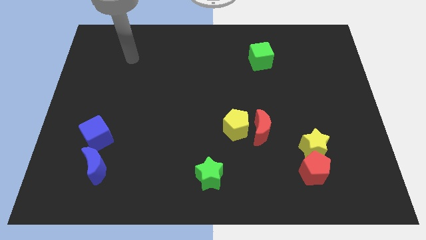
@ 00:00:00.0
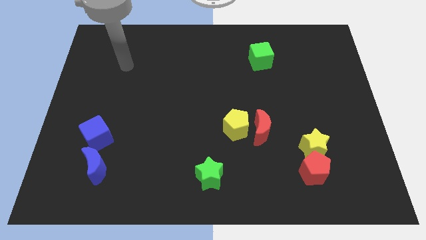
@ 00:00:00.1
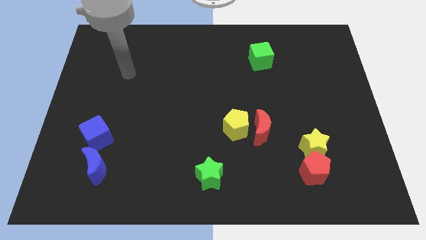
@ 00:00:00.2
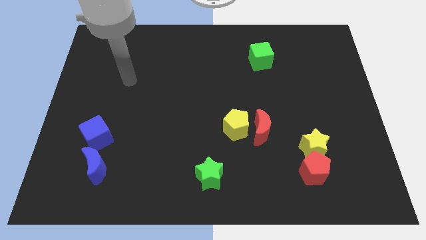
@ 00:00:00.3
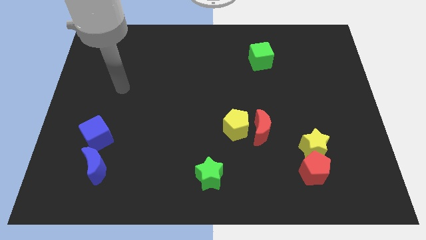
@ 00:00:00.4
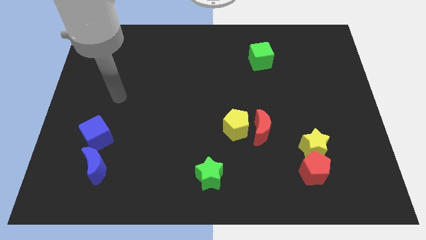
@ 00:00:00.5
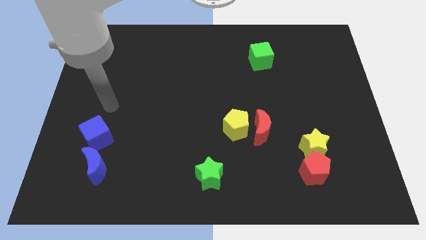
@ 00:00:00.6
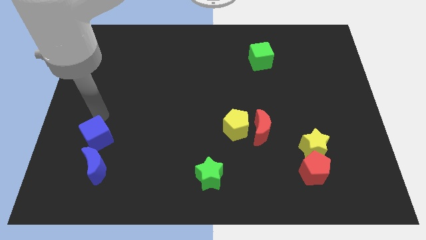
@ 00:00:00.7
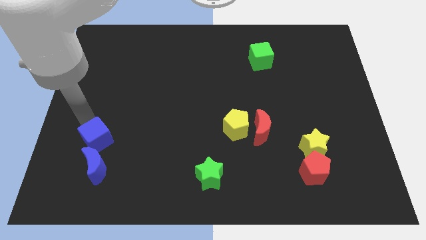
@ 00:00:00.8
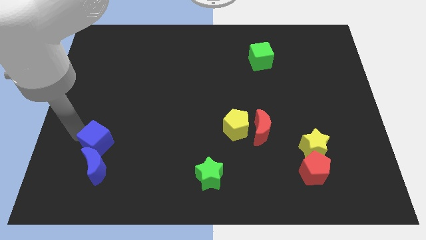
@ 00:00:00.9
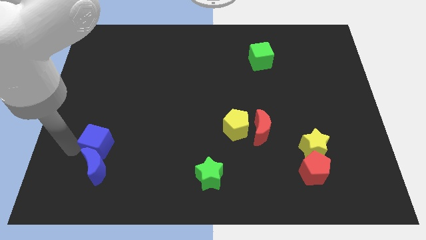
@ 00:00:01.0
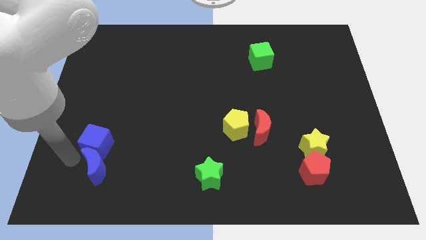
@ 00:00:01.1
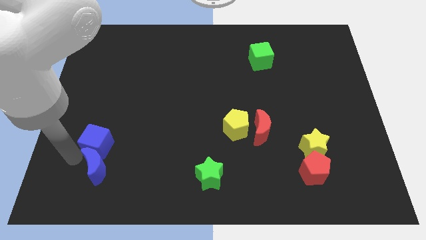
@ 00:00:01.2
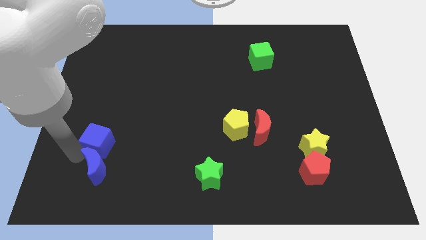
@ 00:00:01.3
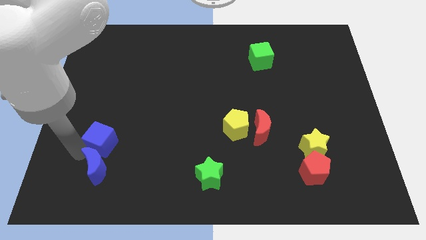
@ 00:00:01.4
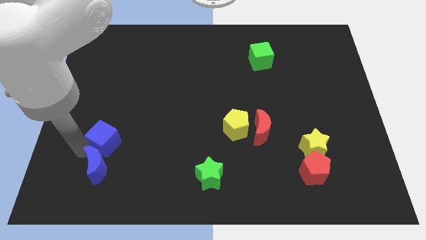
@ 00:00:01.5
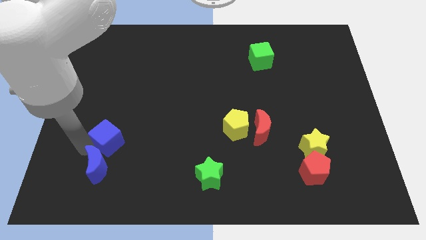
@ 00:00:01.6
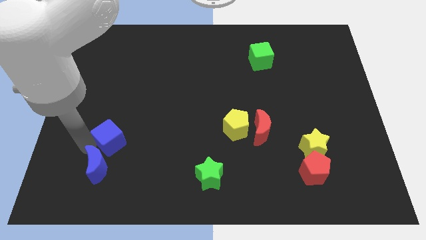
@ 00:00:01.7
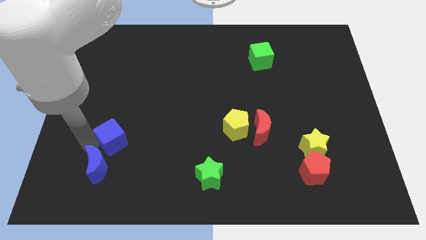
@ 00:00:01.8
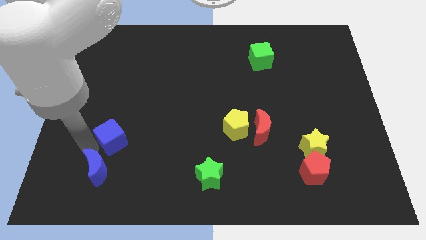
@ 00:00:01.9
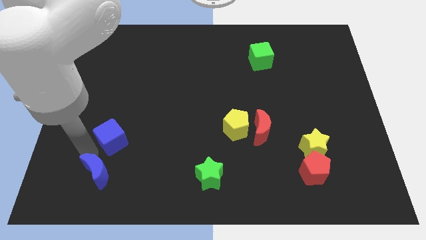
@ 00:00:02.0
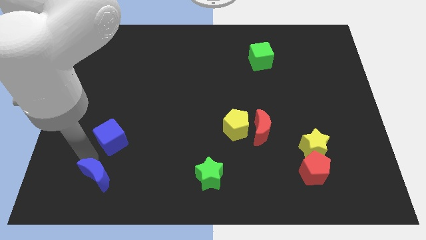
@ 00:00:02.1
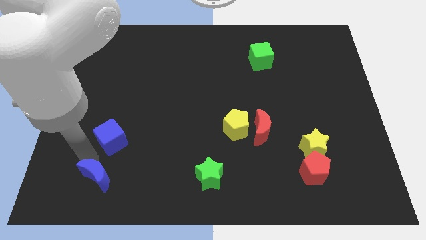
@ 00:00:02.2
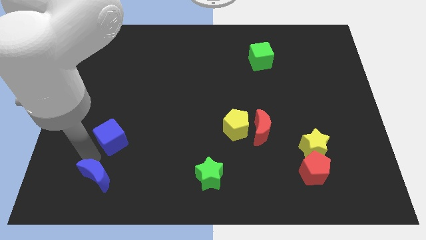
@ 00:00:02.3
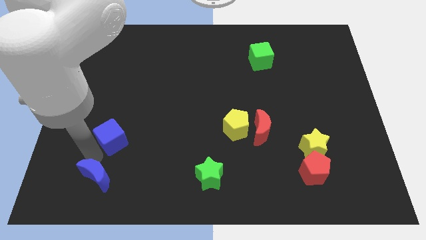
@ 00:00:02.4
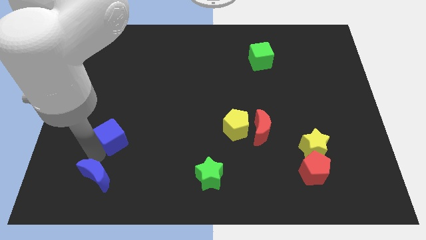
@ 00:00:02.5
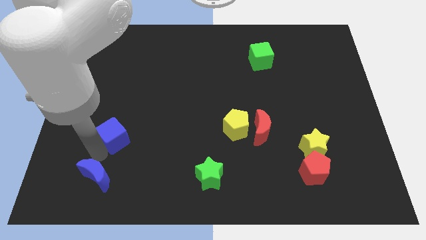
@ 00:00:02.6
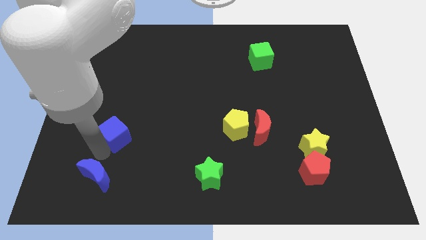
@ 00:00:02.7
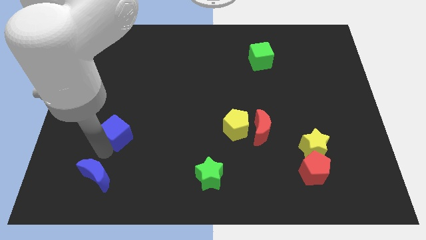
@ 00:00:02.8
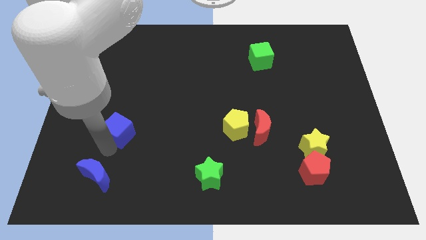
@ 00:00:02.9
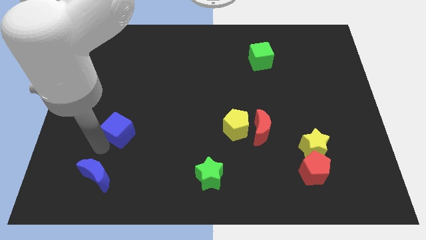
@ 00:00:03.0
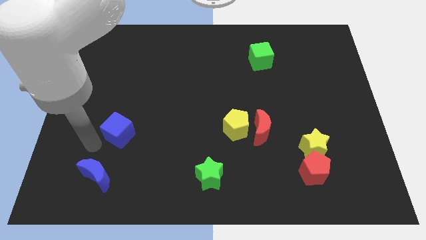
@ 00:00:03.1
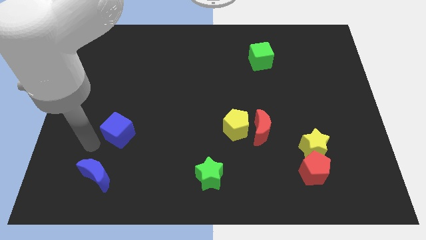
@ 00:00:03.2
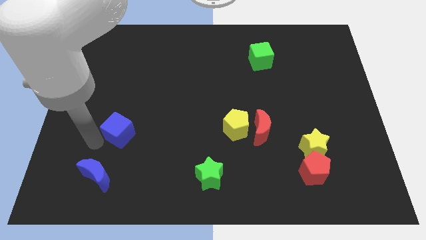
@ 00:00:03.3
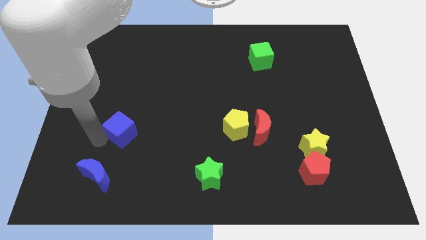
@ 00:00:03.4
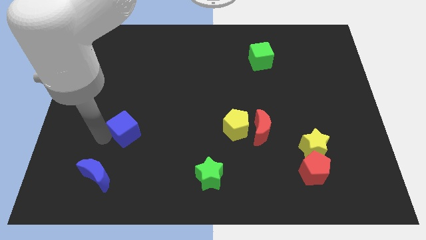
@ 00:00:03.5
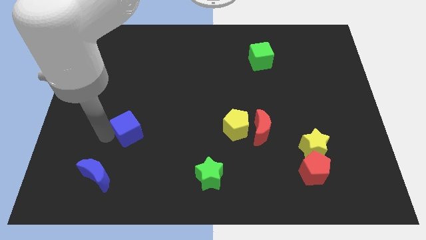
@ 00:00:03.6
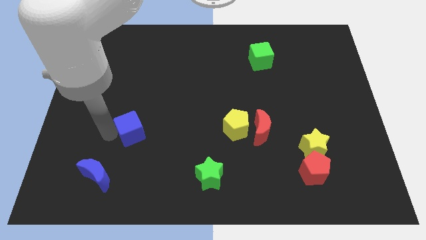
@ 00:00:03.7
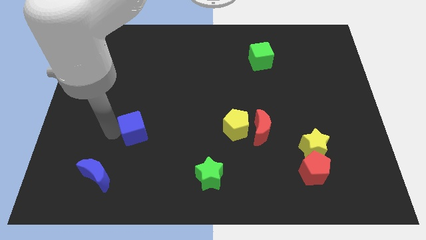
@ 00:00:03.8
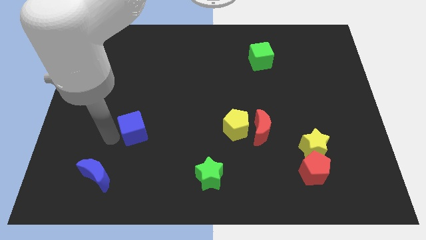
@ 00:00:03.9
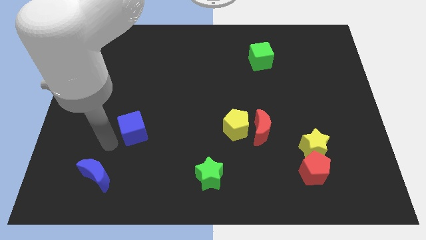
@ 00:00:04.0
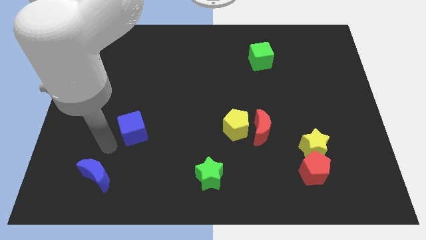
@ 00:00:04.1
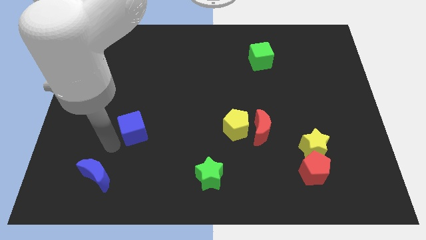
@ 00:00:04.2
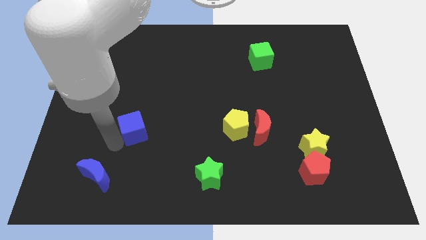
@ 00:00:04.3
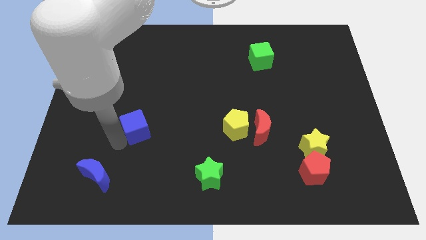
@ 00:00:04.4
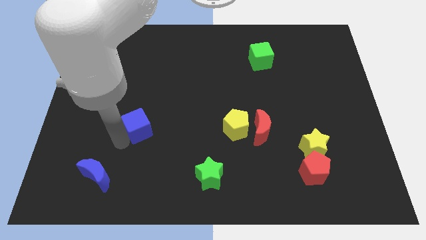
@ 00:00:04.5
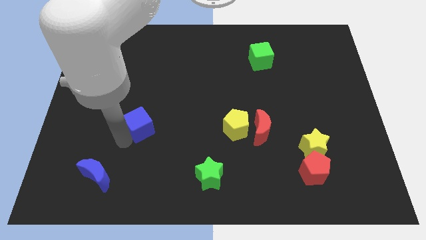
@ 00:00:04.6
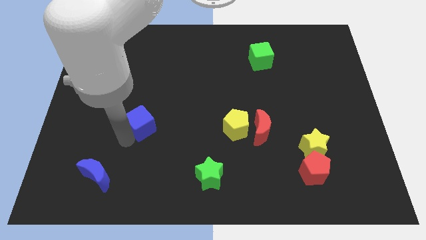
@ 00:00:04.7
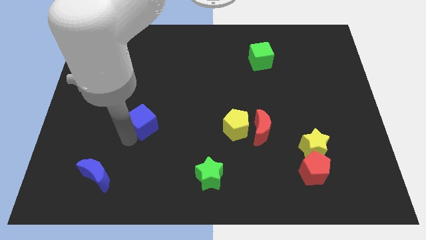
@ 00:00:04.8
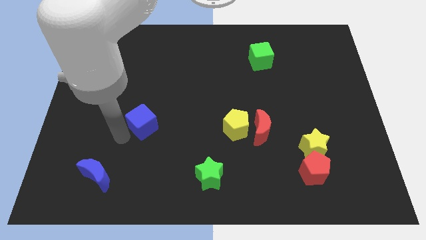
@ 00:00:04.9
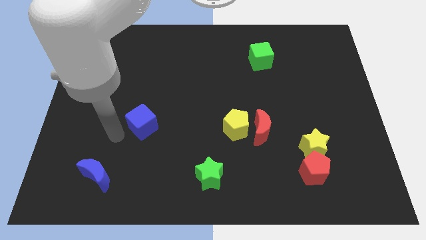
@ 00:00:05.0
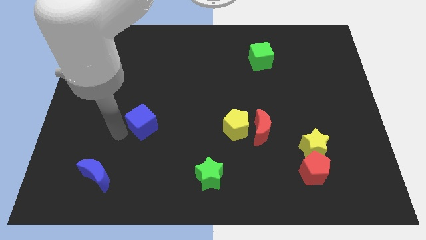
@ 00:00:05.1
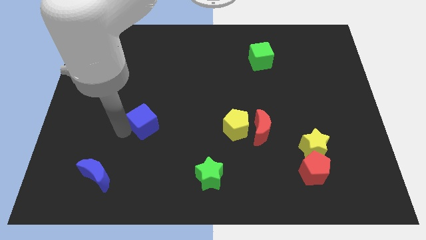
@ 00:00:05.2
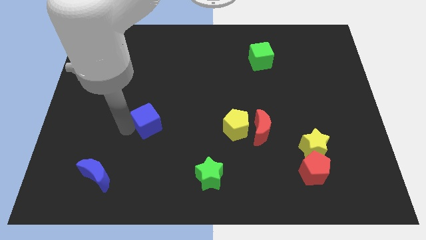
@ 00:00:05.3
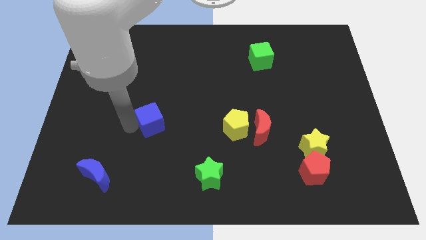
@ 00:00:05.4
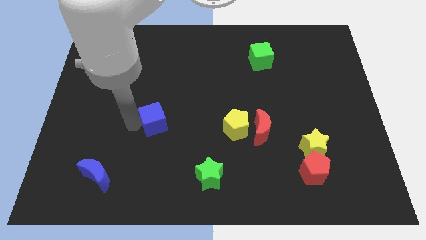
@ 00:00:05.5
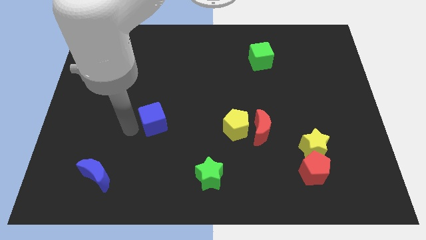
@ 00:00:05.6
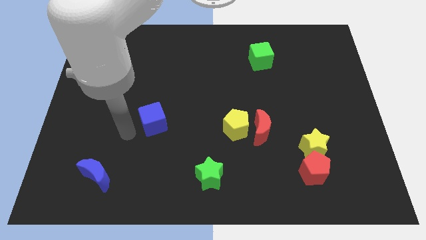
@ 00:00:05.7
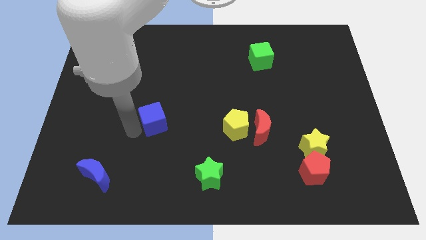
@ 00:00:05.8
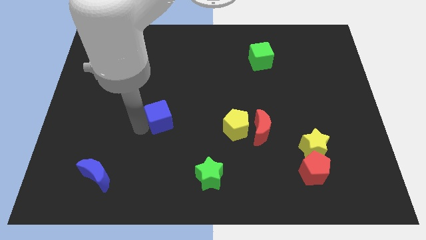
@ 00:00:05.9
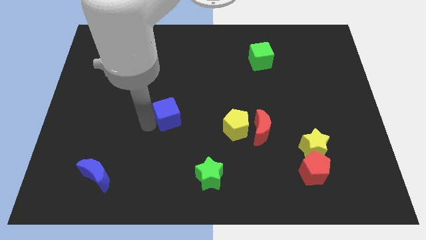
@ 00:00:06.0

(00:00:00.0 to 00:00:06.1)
slide the blue cube to the center

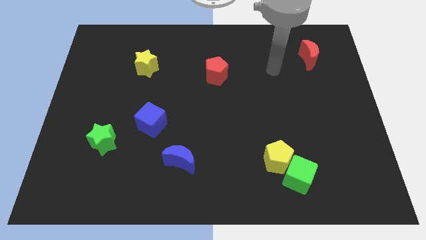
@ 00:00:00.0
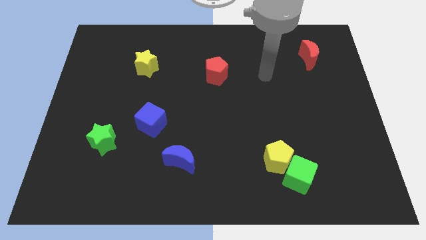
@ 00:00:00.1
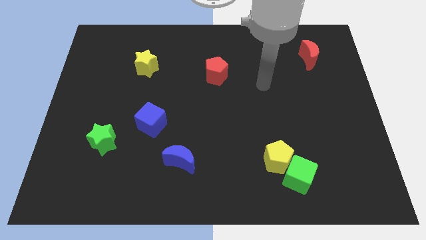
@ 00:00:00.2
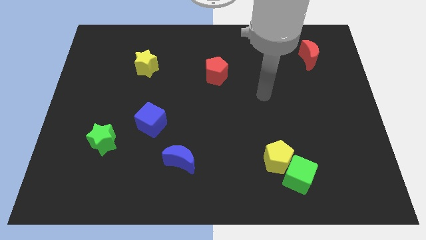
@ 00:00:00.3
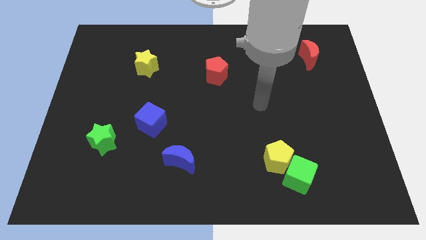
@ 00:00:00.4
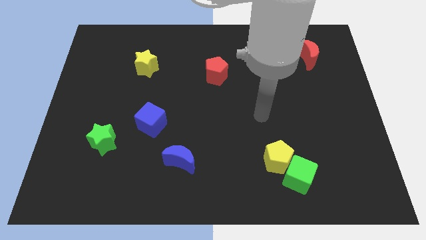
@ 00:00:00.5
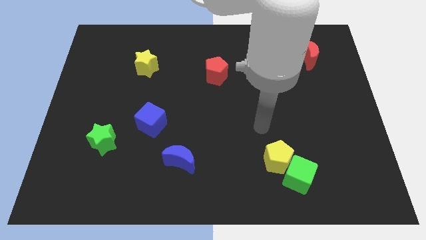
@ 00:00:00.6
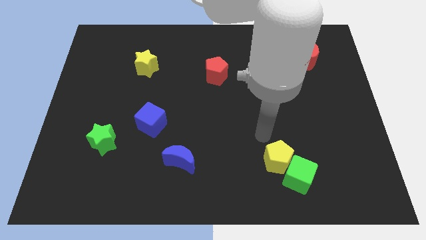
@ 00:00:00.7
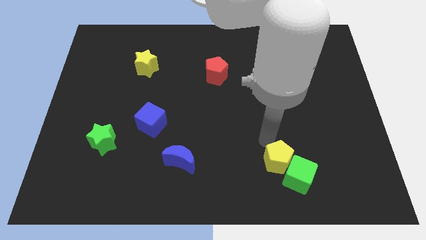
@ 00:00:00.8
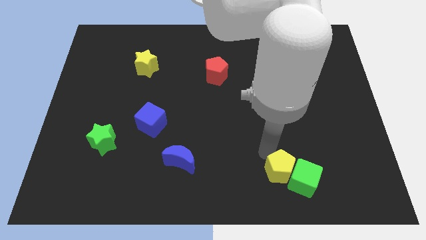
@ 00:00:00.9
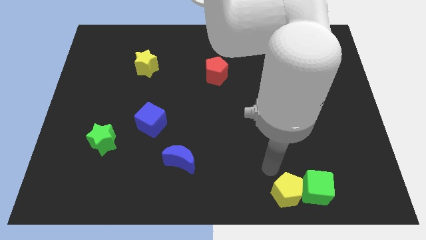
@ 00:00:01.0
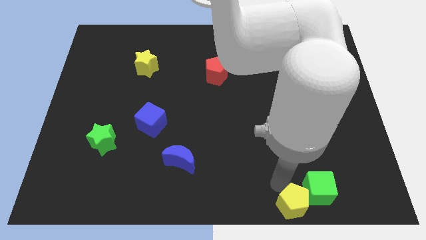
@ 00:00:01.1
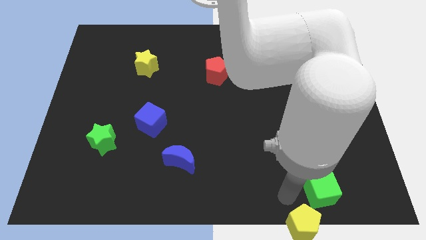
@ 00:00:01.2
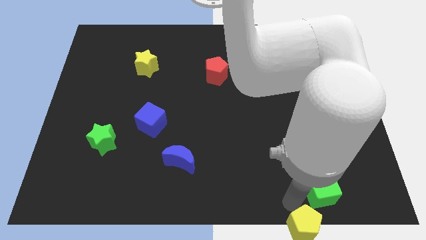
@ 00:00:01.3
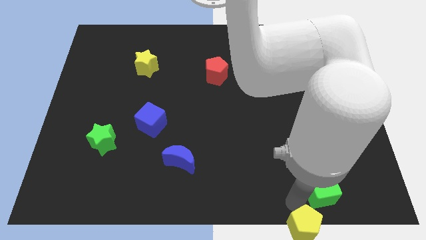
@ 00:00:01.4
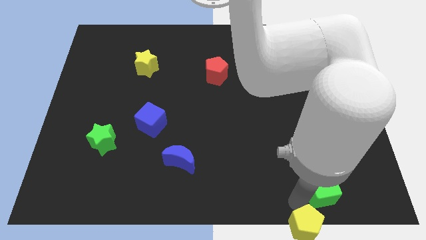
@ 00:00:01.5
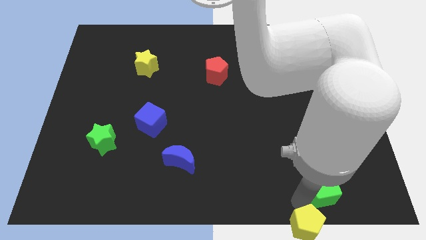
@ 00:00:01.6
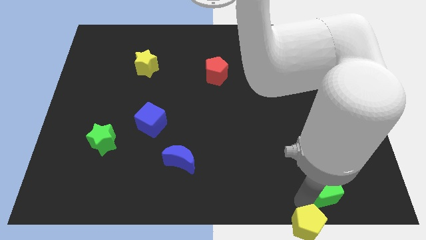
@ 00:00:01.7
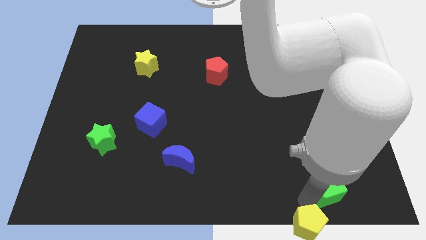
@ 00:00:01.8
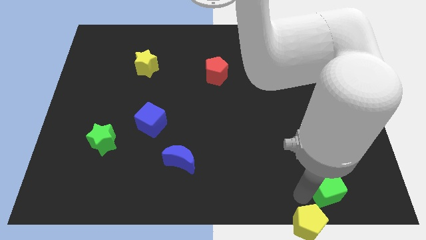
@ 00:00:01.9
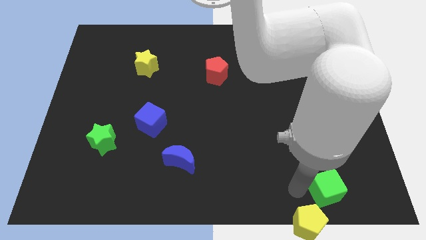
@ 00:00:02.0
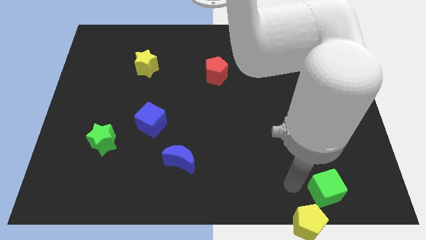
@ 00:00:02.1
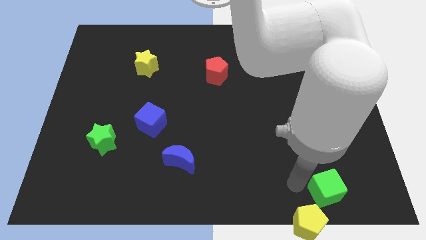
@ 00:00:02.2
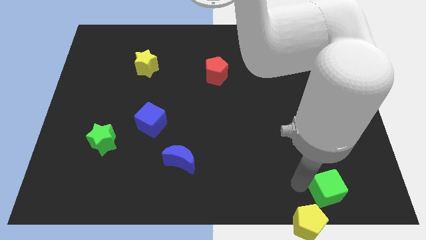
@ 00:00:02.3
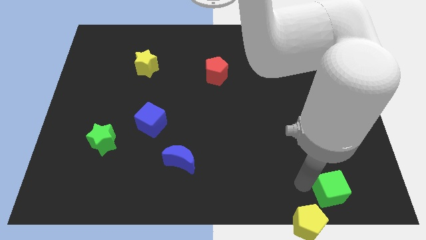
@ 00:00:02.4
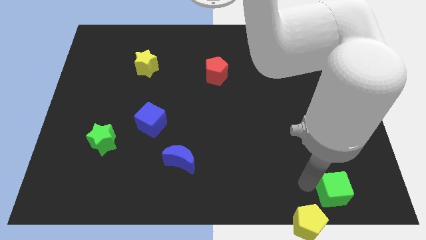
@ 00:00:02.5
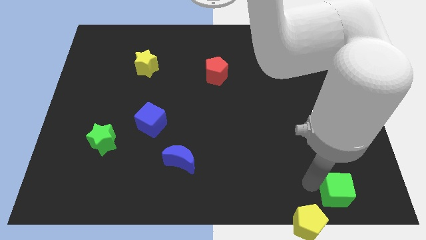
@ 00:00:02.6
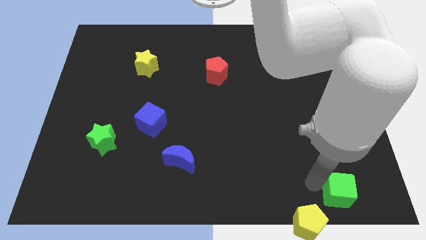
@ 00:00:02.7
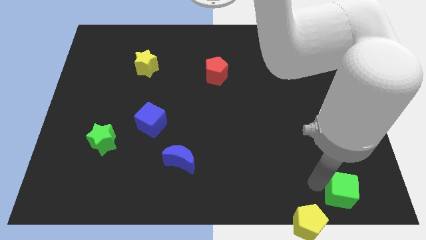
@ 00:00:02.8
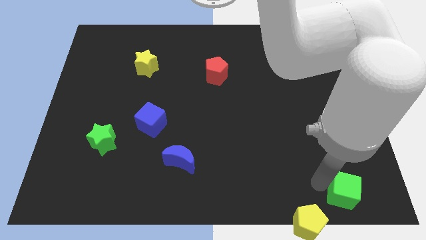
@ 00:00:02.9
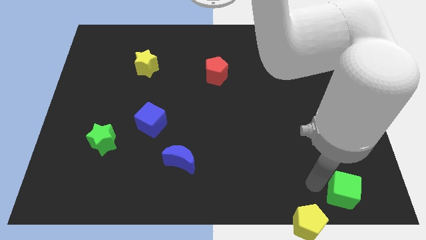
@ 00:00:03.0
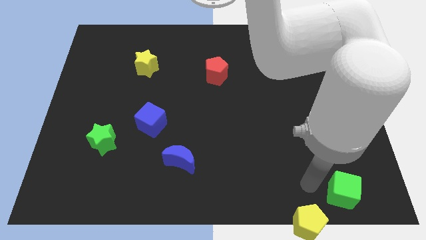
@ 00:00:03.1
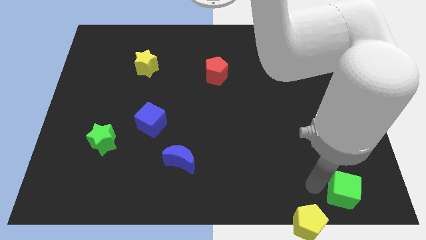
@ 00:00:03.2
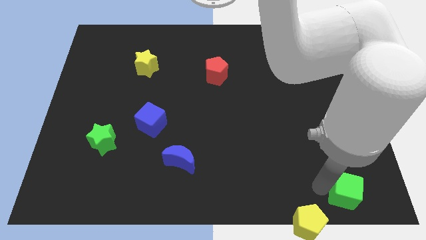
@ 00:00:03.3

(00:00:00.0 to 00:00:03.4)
move the green cube to the lower right corner
